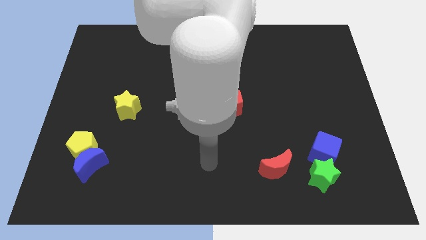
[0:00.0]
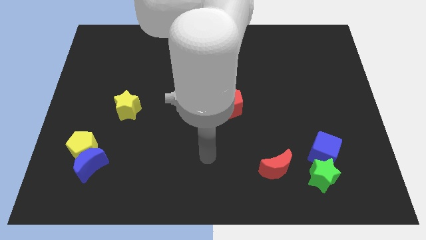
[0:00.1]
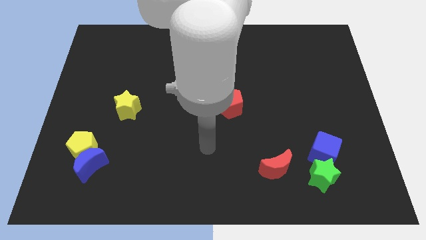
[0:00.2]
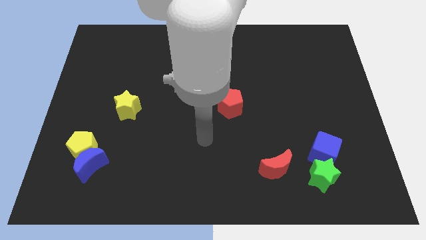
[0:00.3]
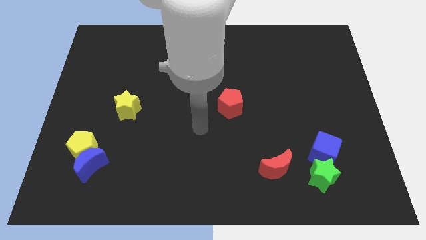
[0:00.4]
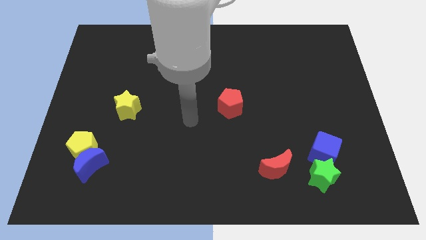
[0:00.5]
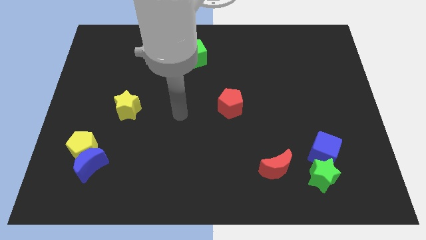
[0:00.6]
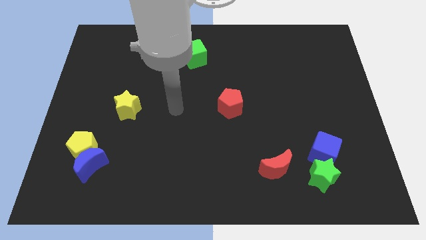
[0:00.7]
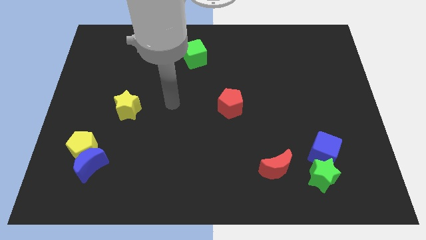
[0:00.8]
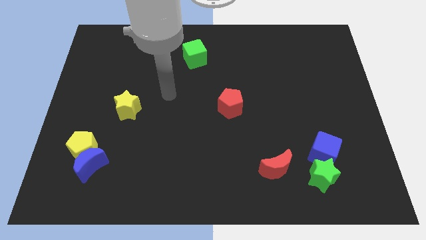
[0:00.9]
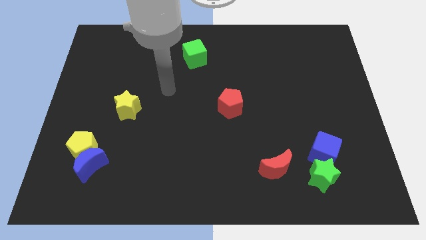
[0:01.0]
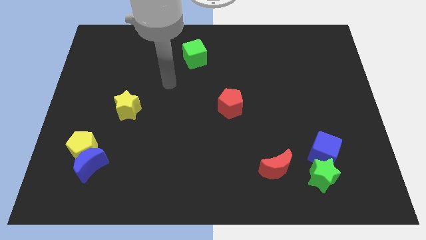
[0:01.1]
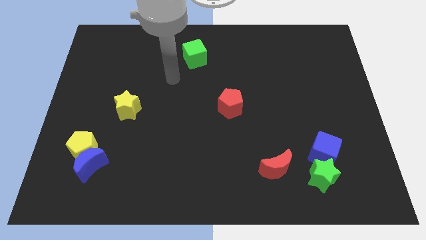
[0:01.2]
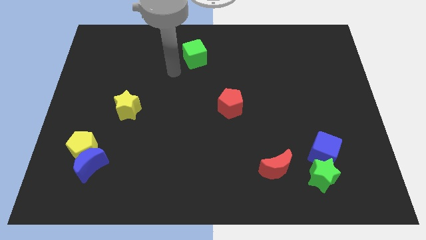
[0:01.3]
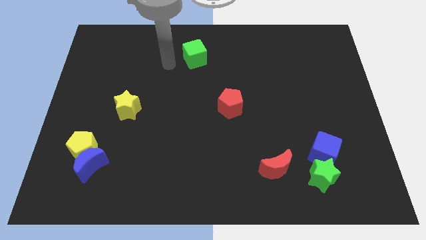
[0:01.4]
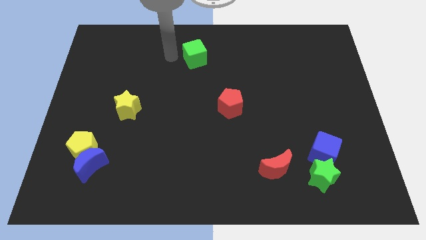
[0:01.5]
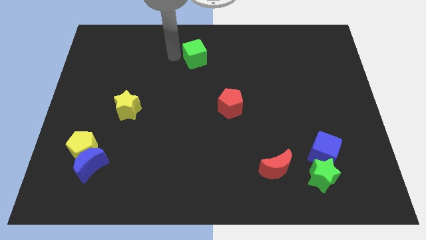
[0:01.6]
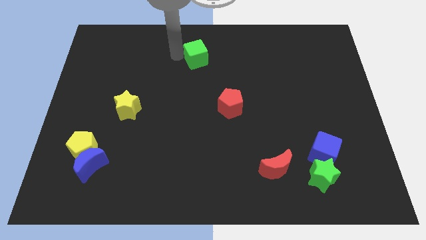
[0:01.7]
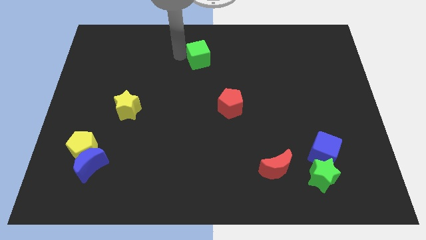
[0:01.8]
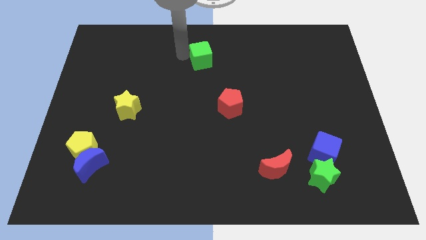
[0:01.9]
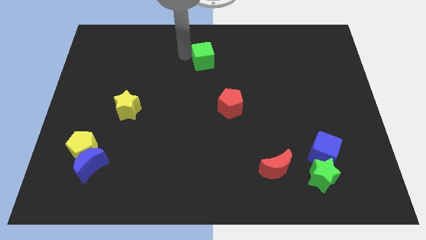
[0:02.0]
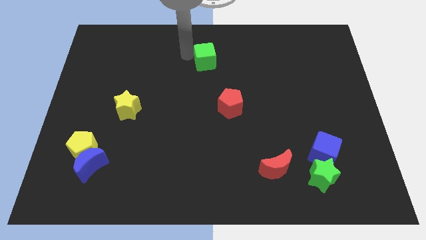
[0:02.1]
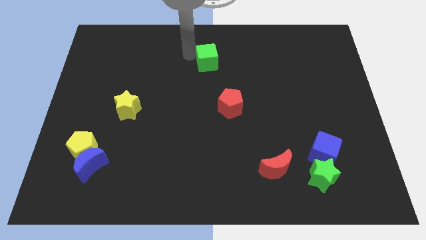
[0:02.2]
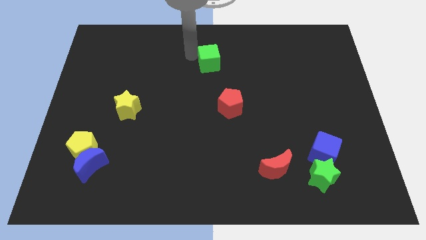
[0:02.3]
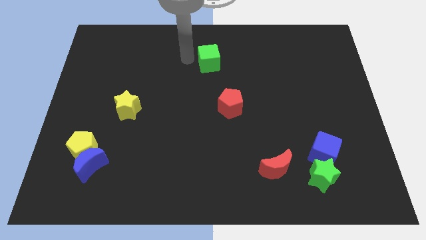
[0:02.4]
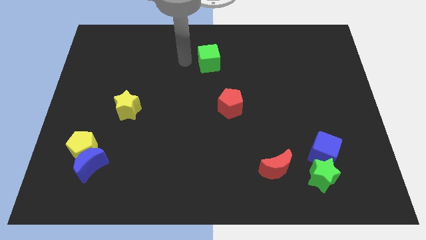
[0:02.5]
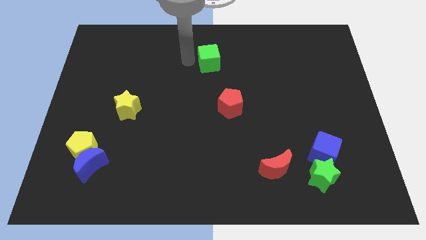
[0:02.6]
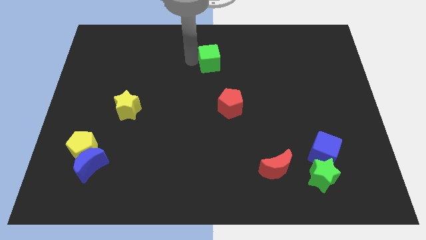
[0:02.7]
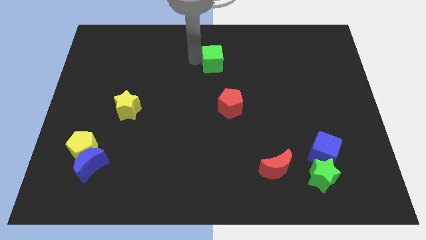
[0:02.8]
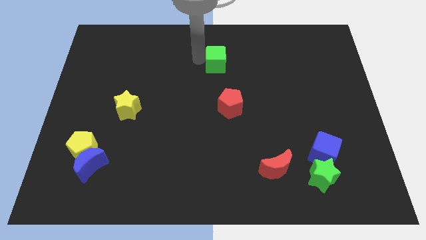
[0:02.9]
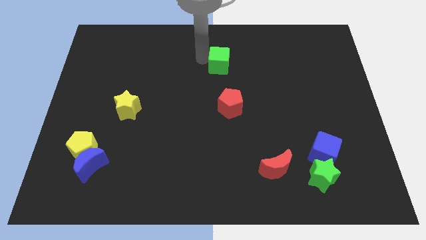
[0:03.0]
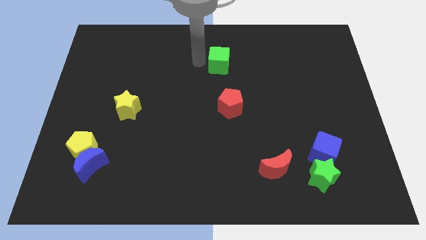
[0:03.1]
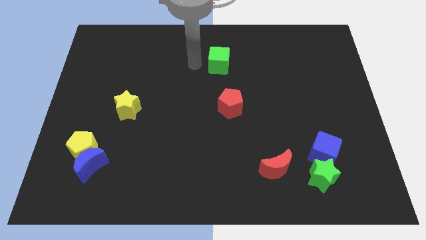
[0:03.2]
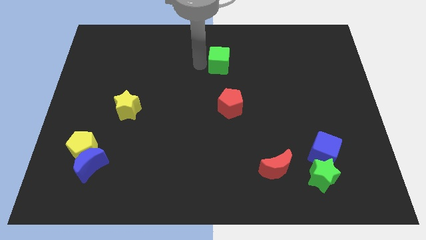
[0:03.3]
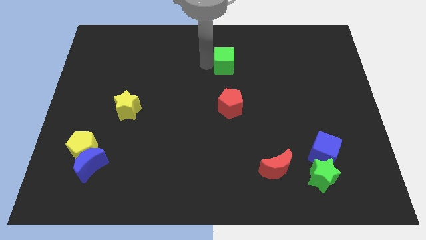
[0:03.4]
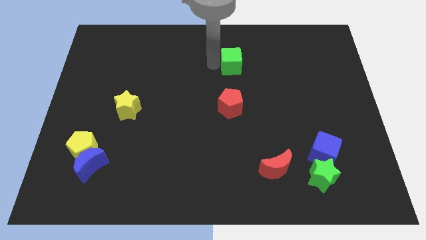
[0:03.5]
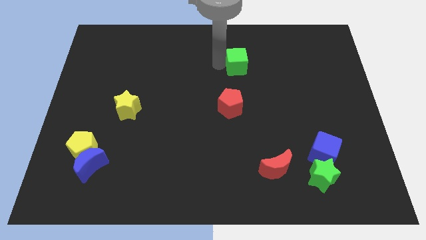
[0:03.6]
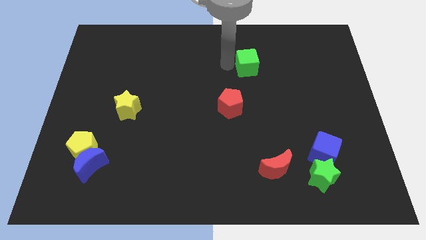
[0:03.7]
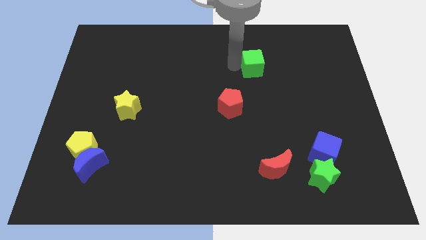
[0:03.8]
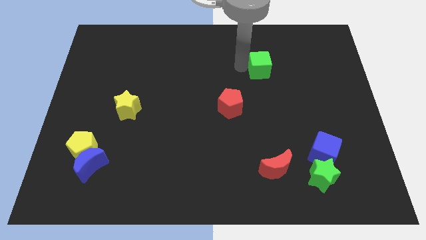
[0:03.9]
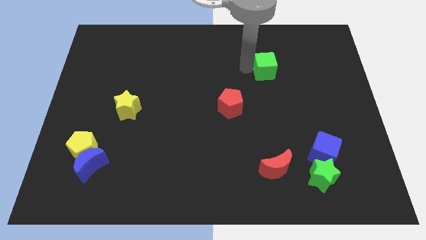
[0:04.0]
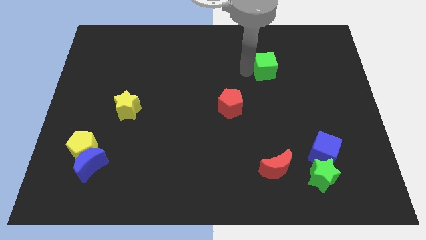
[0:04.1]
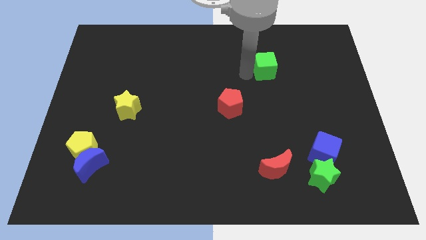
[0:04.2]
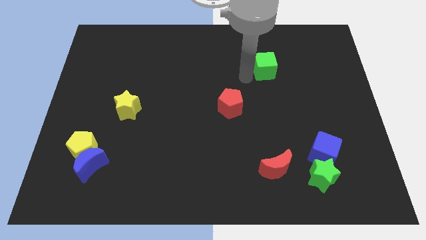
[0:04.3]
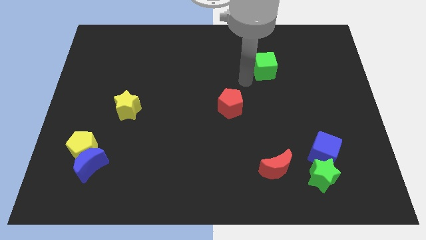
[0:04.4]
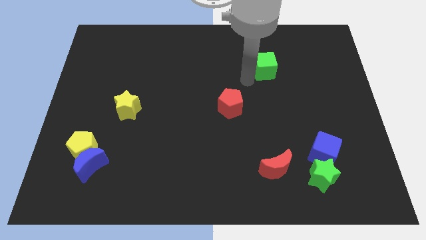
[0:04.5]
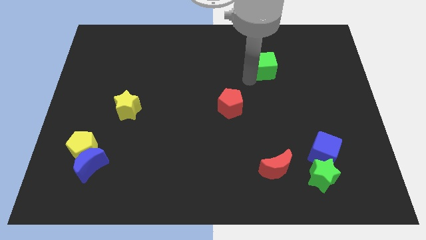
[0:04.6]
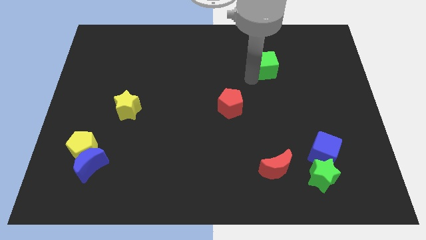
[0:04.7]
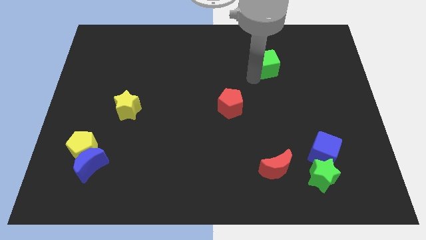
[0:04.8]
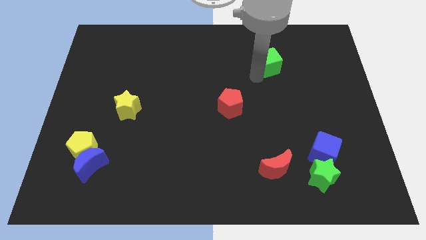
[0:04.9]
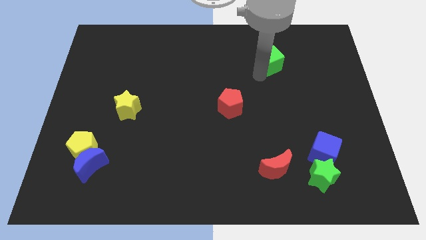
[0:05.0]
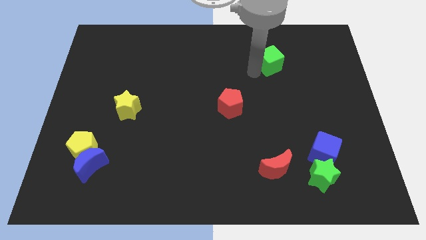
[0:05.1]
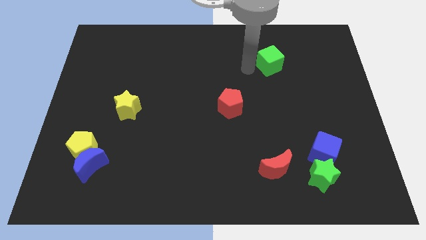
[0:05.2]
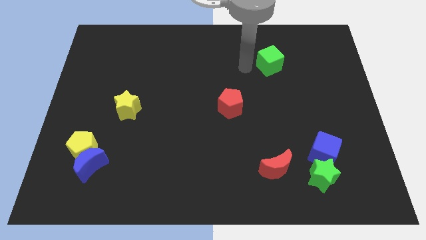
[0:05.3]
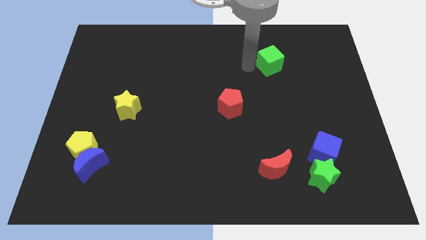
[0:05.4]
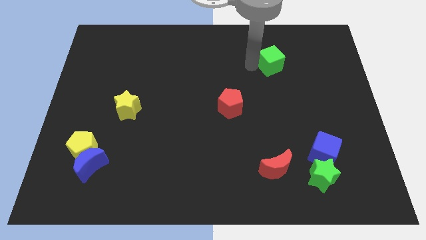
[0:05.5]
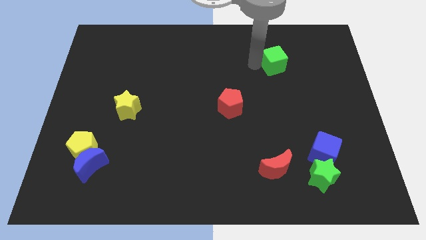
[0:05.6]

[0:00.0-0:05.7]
push the green cube right

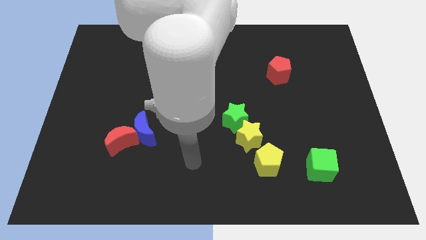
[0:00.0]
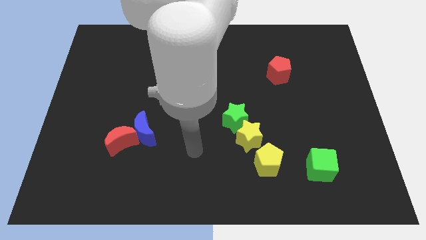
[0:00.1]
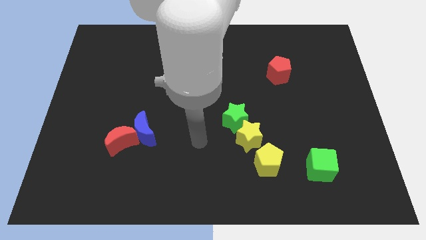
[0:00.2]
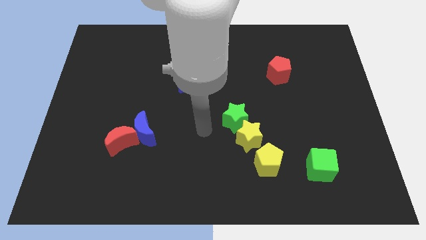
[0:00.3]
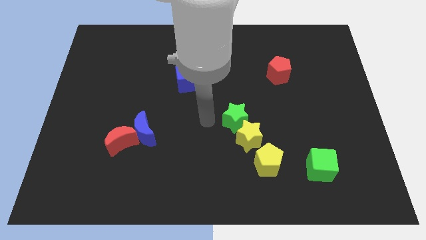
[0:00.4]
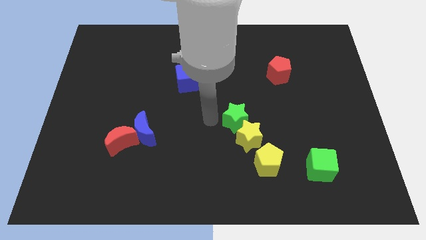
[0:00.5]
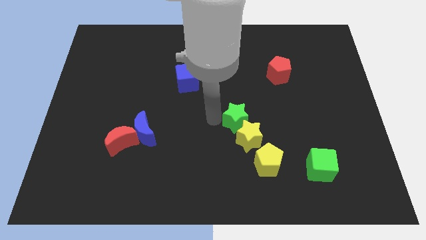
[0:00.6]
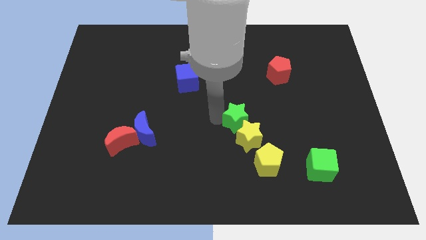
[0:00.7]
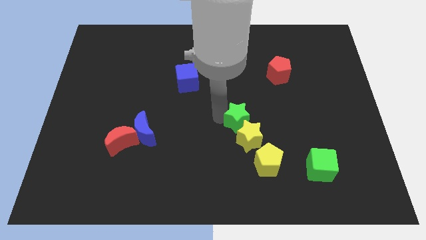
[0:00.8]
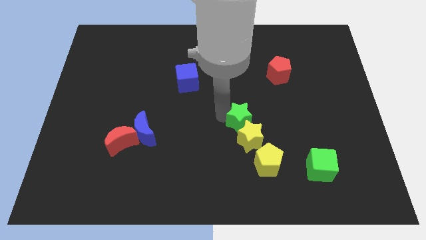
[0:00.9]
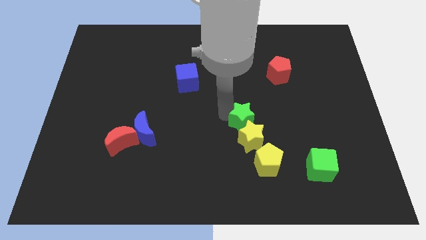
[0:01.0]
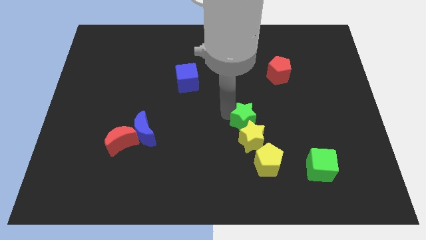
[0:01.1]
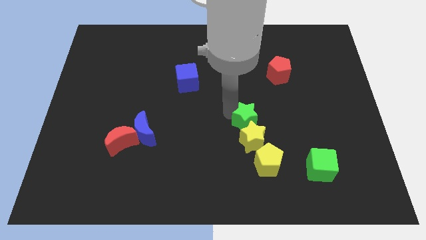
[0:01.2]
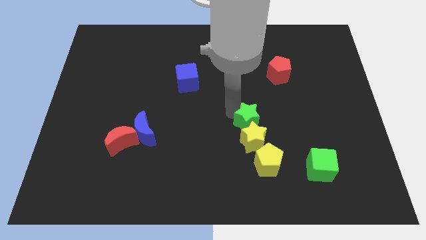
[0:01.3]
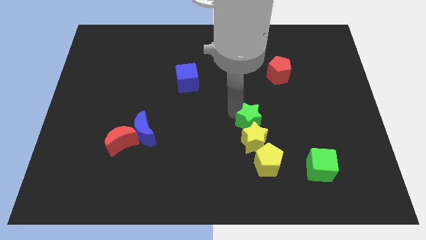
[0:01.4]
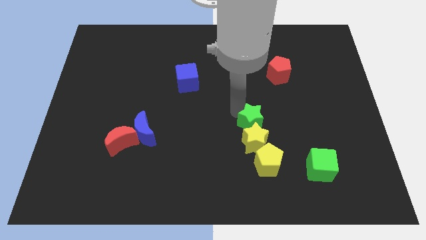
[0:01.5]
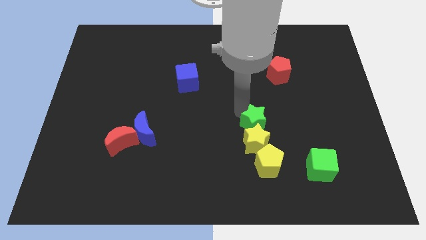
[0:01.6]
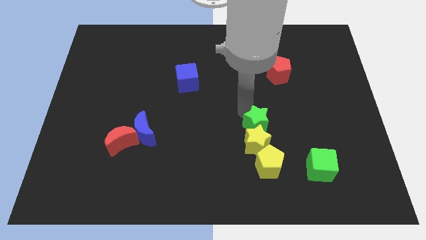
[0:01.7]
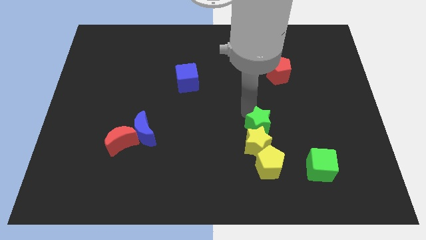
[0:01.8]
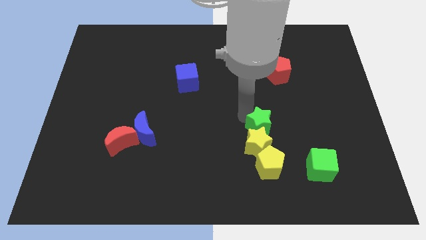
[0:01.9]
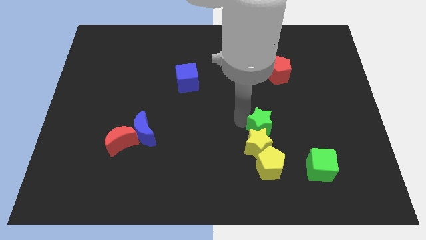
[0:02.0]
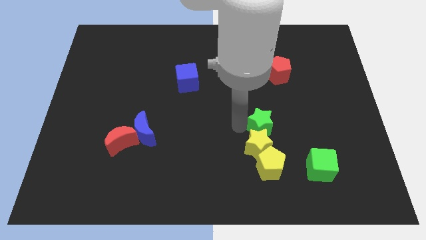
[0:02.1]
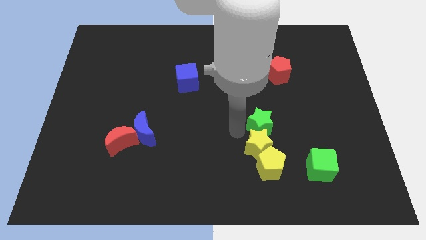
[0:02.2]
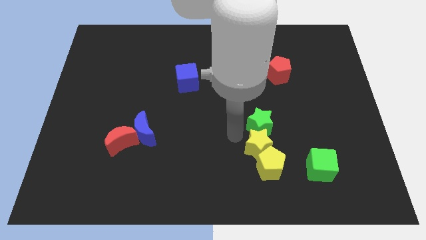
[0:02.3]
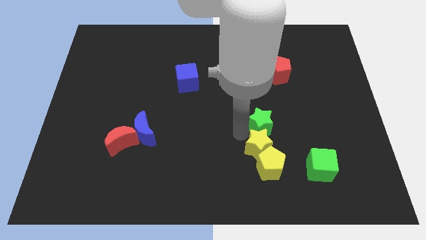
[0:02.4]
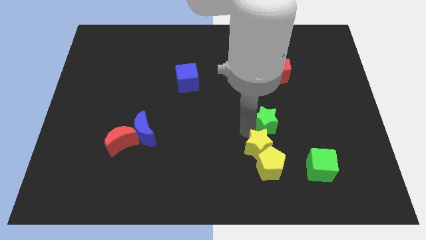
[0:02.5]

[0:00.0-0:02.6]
push the green star a little to the right
